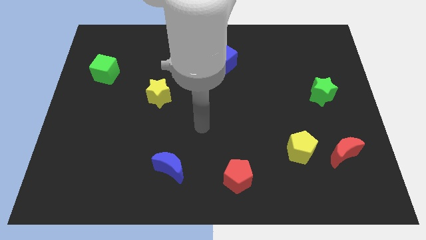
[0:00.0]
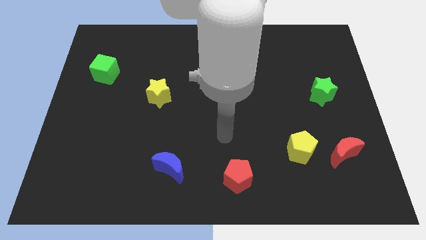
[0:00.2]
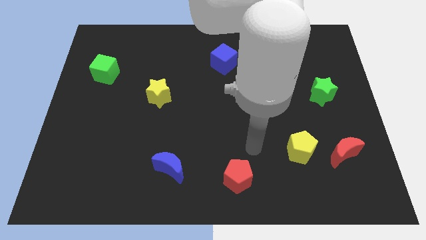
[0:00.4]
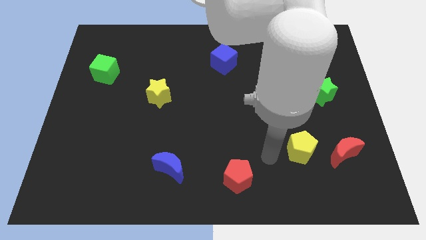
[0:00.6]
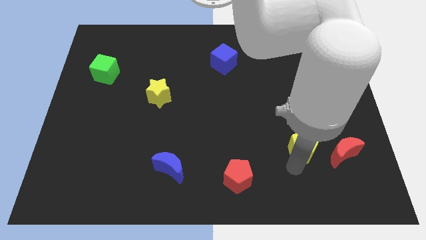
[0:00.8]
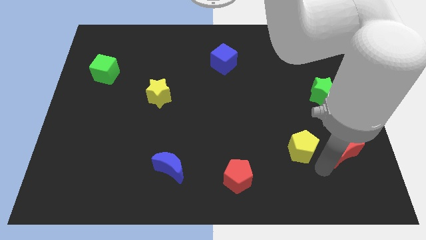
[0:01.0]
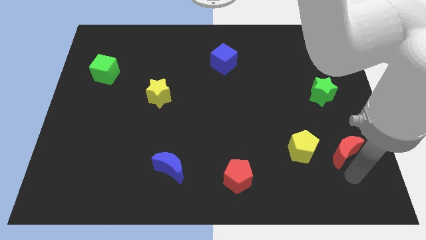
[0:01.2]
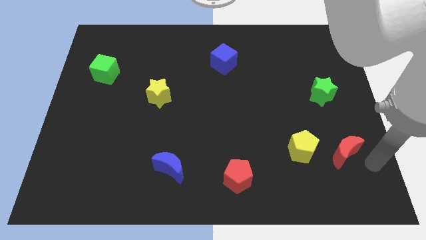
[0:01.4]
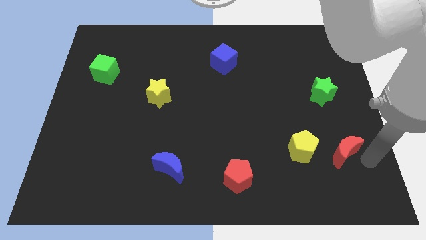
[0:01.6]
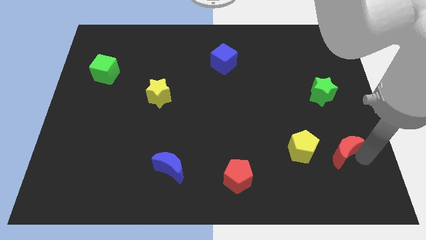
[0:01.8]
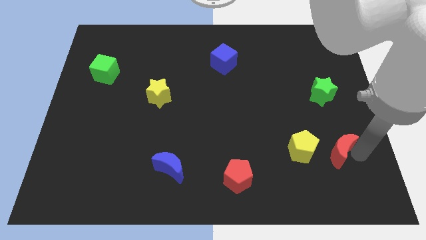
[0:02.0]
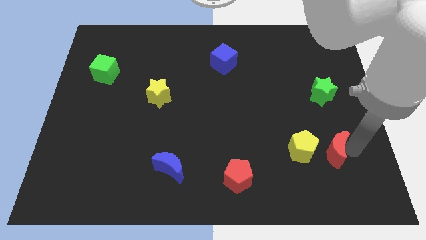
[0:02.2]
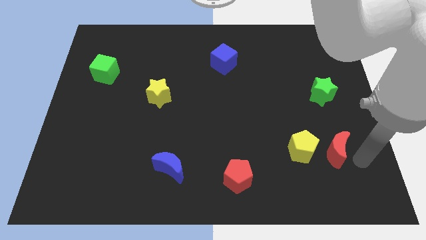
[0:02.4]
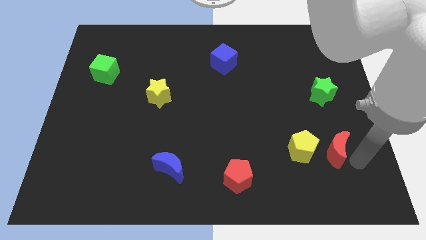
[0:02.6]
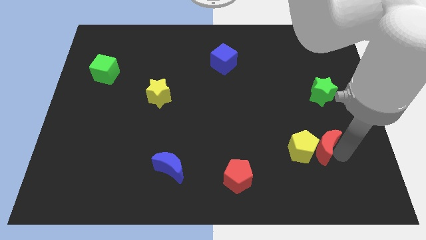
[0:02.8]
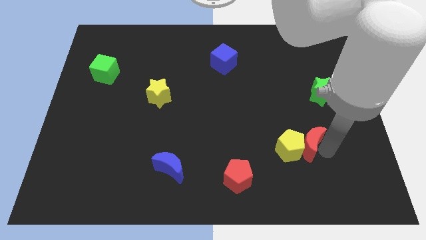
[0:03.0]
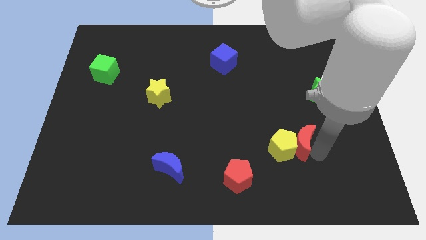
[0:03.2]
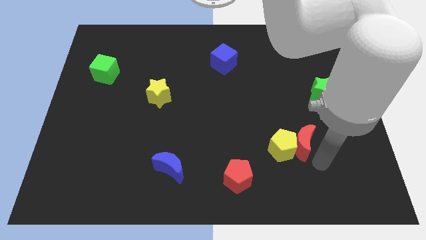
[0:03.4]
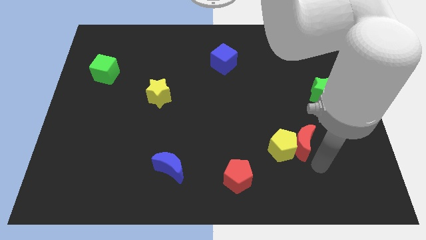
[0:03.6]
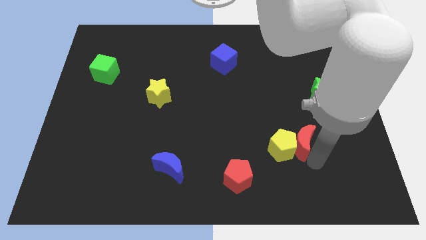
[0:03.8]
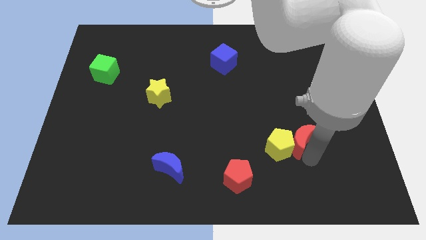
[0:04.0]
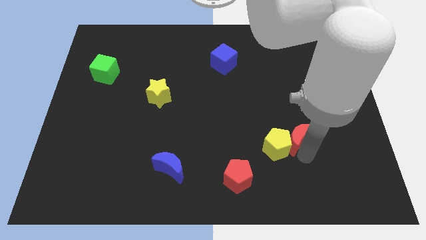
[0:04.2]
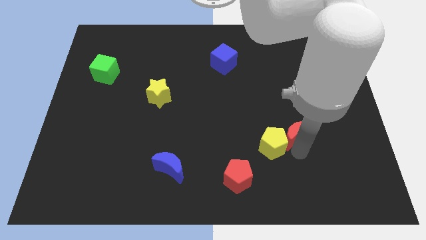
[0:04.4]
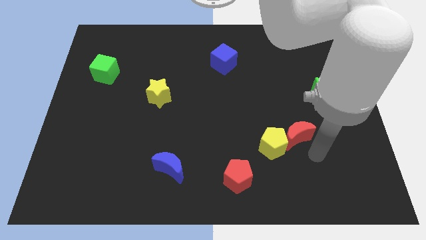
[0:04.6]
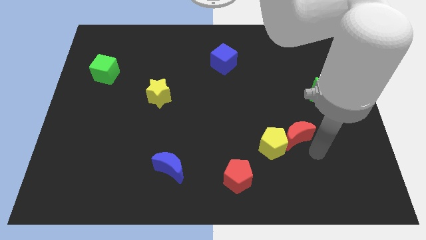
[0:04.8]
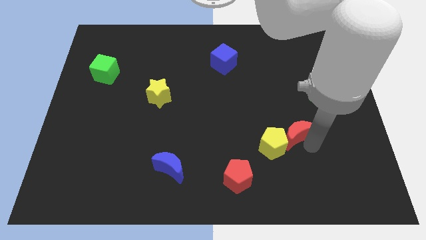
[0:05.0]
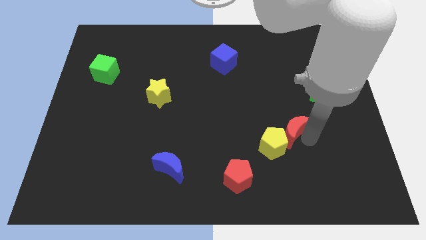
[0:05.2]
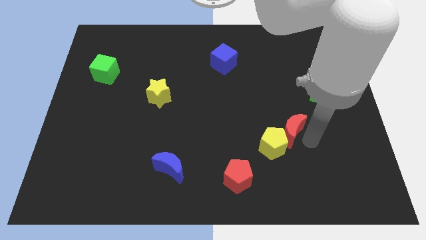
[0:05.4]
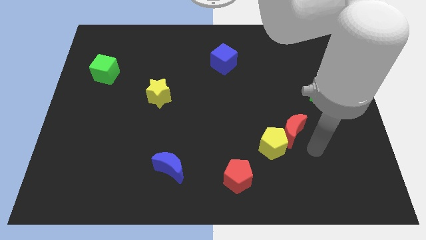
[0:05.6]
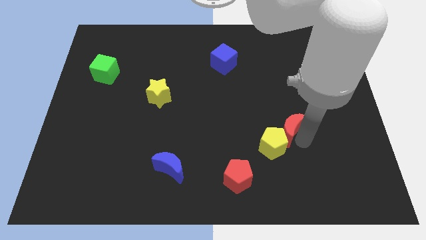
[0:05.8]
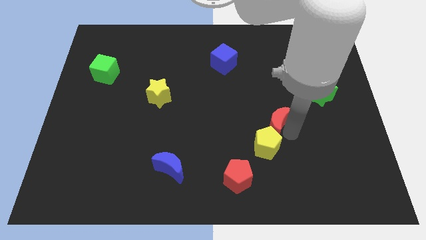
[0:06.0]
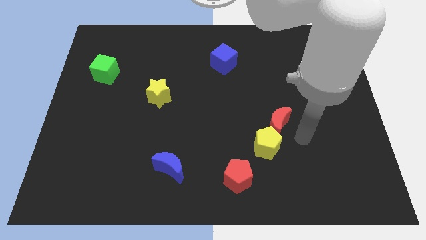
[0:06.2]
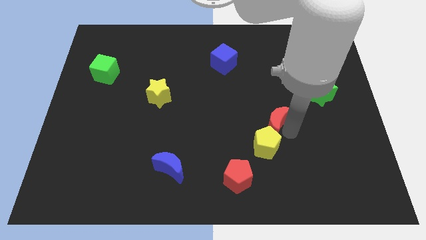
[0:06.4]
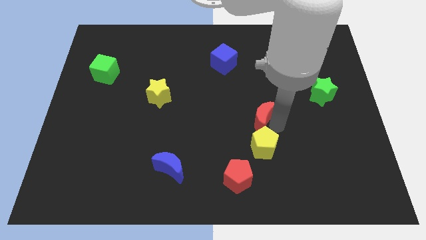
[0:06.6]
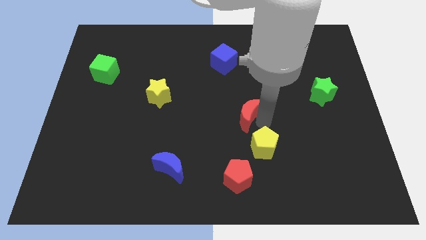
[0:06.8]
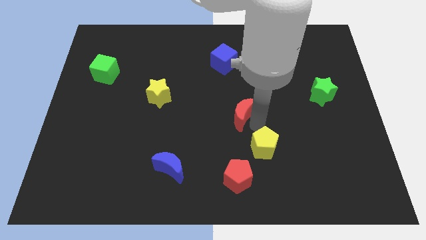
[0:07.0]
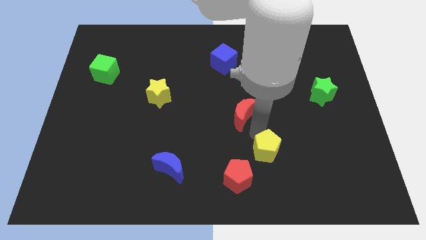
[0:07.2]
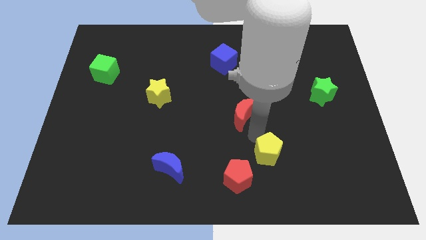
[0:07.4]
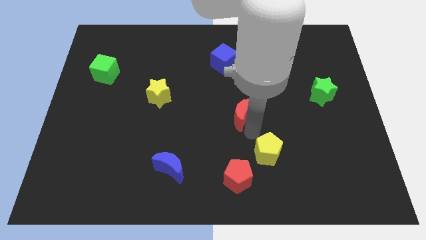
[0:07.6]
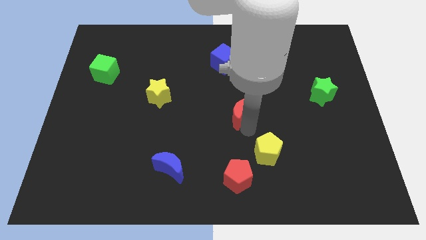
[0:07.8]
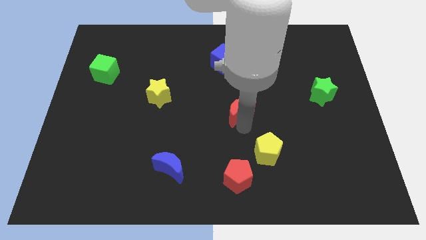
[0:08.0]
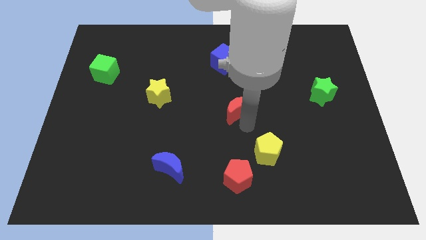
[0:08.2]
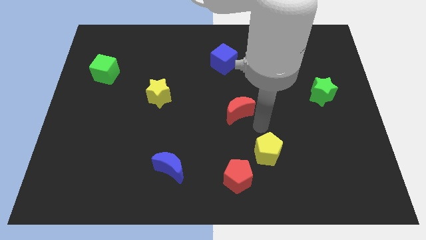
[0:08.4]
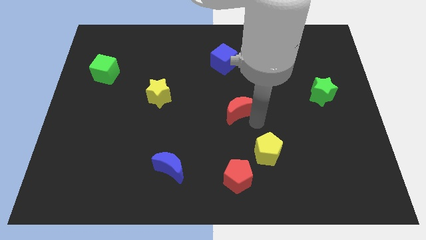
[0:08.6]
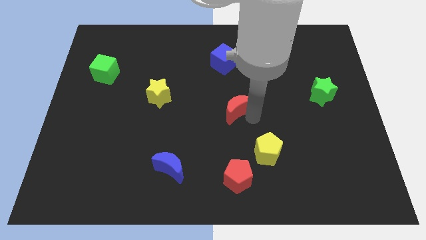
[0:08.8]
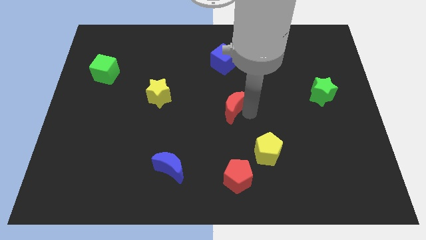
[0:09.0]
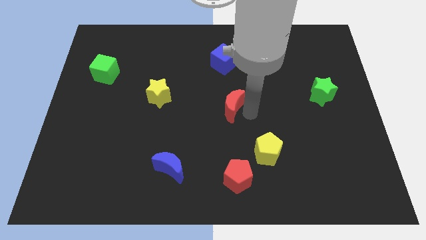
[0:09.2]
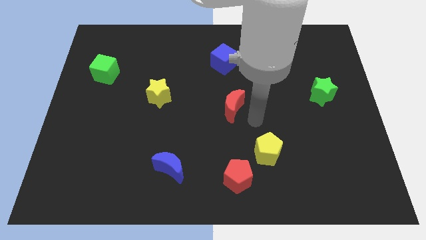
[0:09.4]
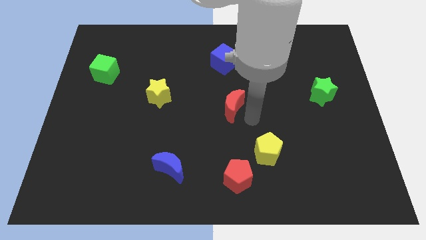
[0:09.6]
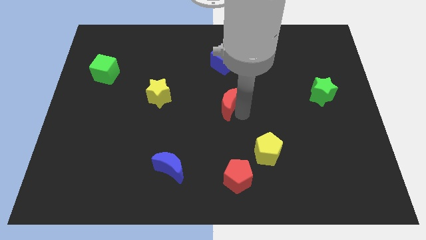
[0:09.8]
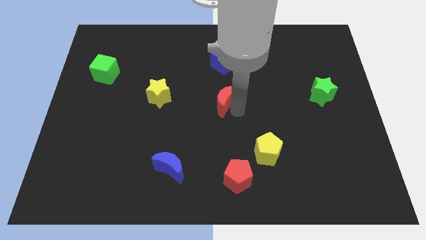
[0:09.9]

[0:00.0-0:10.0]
push the red moon just right of the yellow star

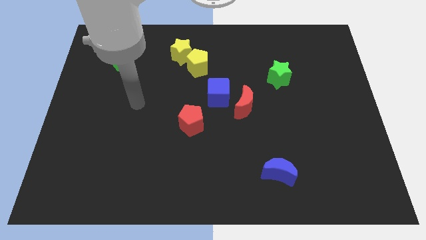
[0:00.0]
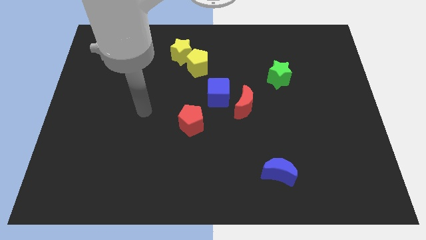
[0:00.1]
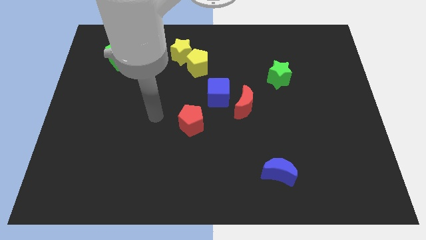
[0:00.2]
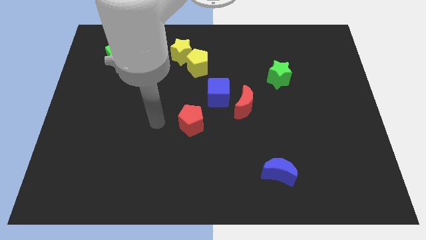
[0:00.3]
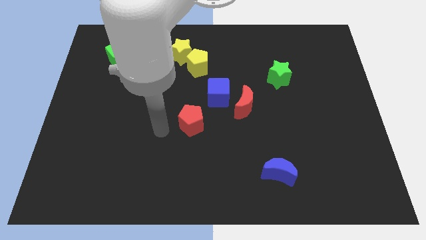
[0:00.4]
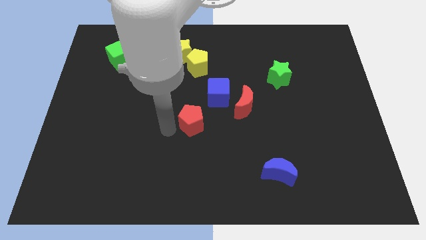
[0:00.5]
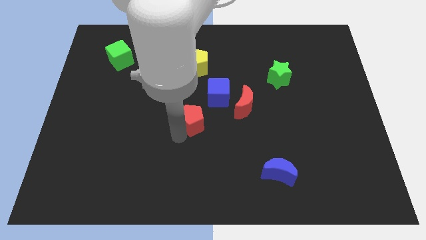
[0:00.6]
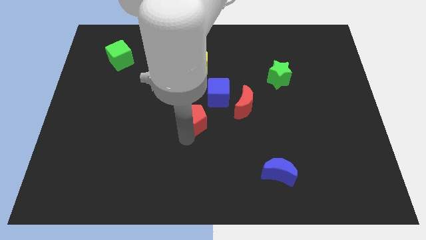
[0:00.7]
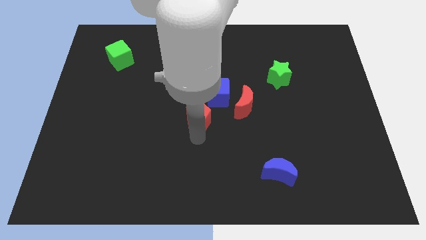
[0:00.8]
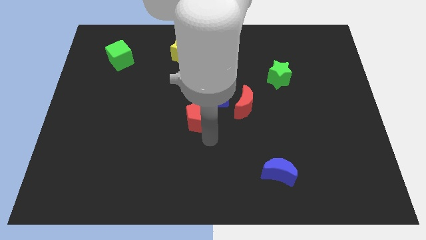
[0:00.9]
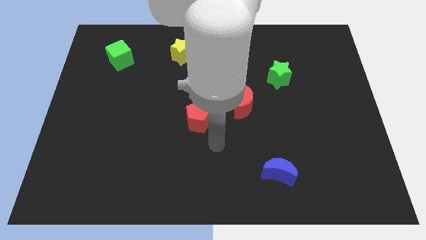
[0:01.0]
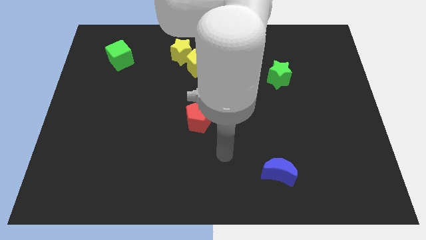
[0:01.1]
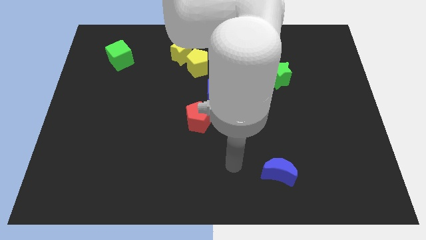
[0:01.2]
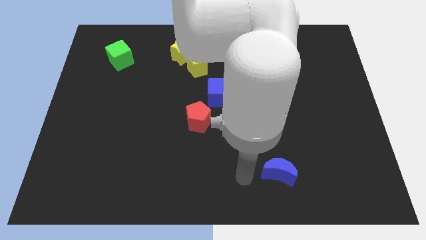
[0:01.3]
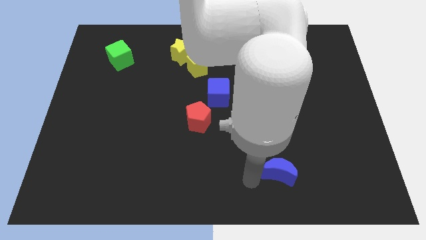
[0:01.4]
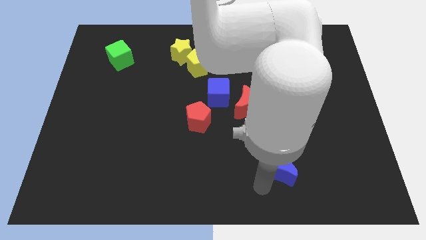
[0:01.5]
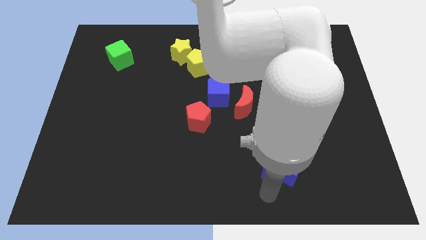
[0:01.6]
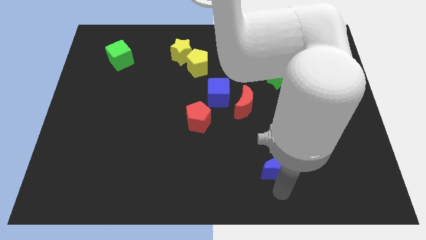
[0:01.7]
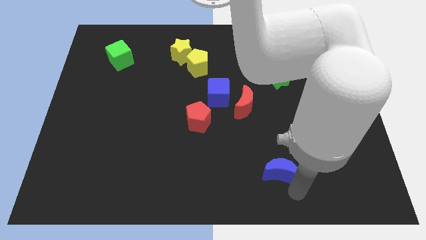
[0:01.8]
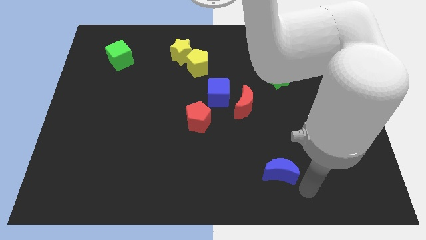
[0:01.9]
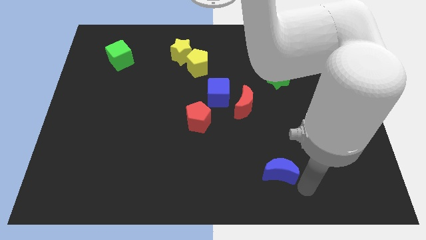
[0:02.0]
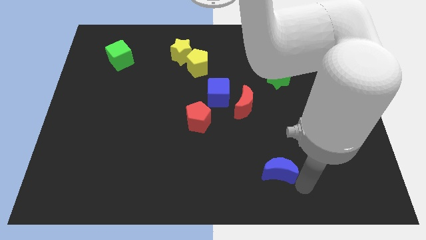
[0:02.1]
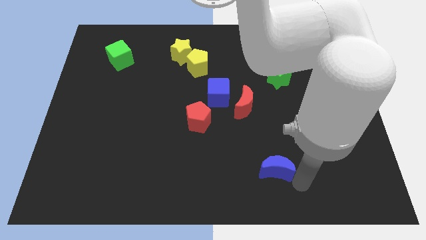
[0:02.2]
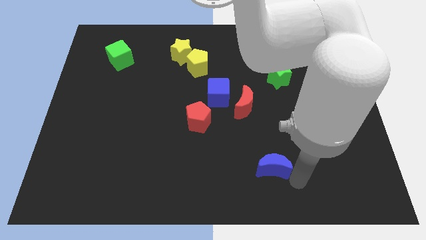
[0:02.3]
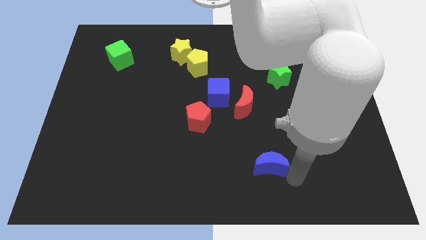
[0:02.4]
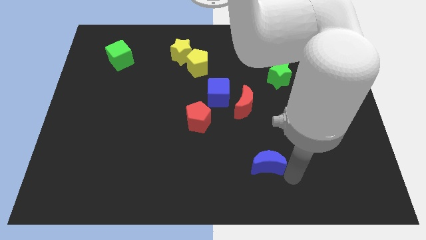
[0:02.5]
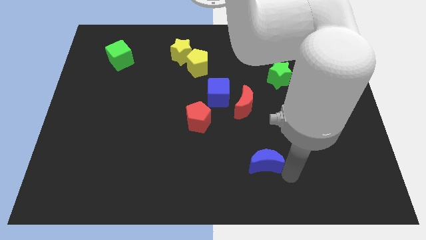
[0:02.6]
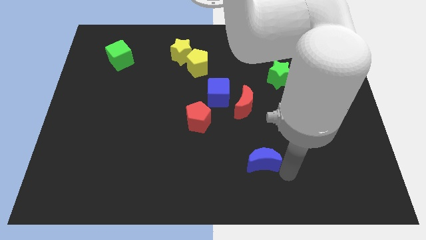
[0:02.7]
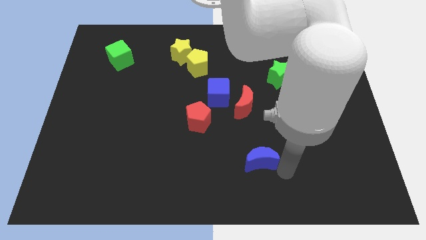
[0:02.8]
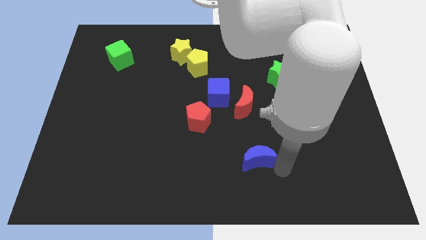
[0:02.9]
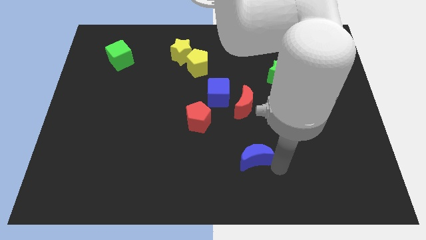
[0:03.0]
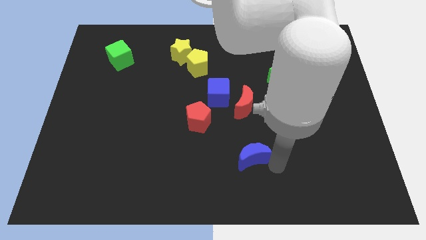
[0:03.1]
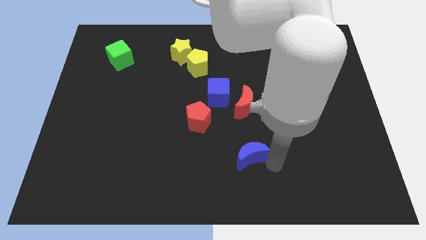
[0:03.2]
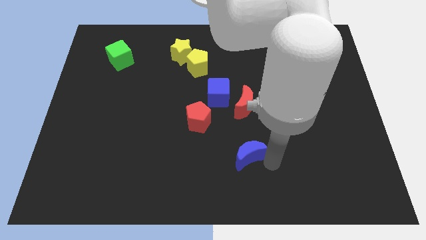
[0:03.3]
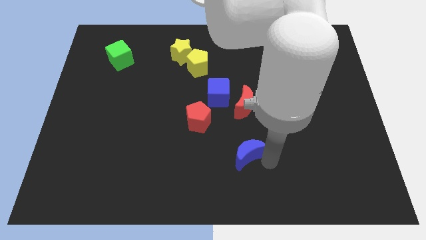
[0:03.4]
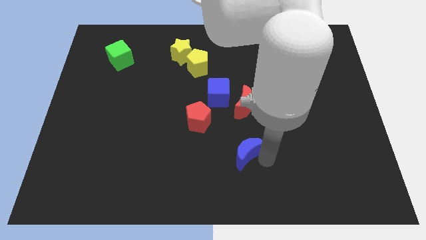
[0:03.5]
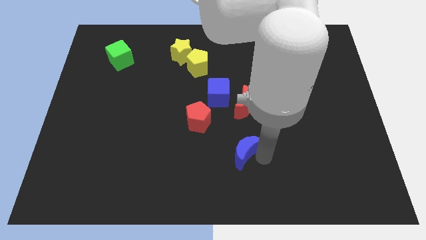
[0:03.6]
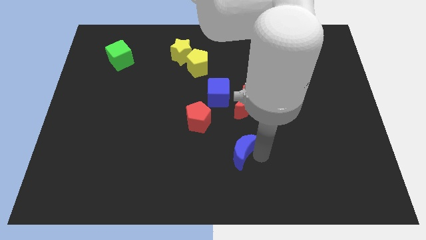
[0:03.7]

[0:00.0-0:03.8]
move the blue moon to the bottom right side of the red pentagon
